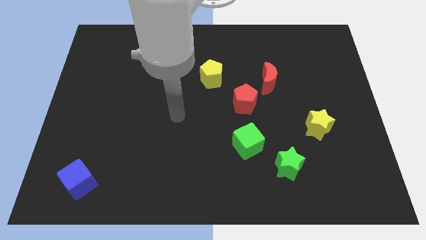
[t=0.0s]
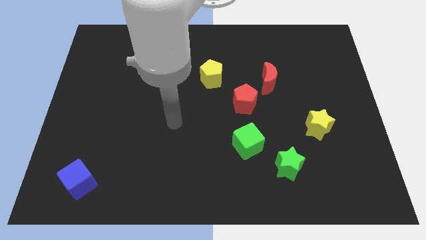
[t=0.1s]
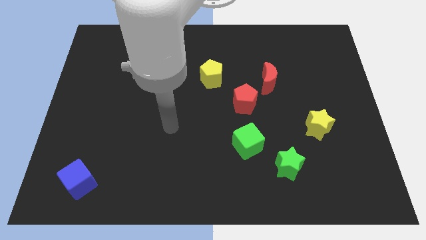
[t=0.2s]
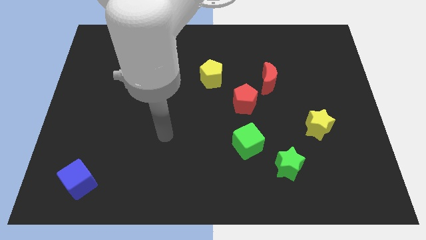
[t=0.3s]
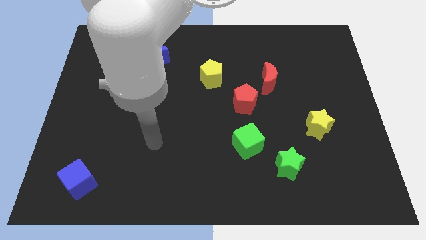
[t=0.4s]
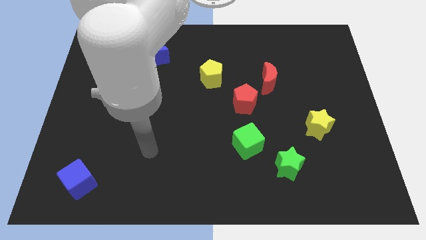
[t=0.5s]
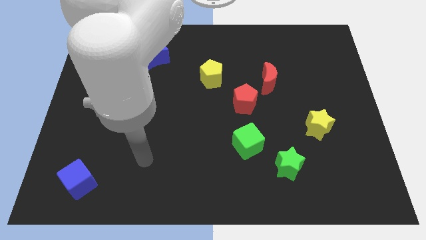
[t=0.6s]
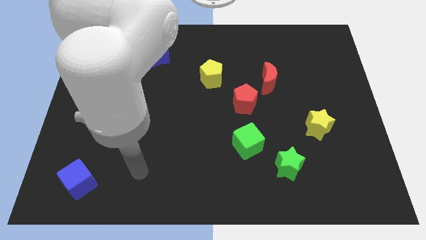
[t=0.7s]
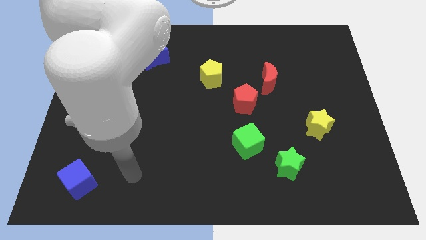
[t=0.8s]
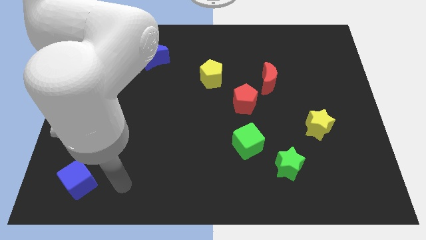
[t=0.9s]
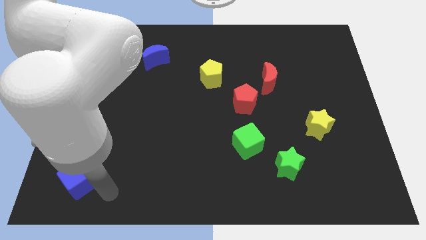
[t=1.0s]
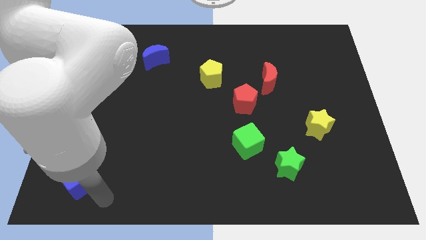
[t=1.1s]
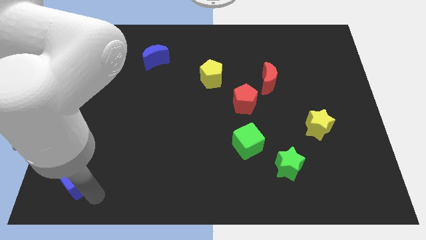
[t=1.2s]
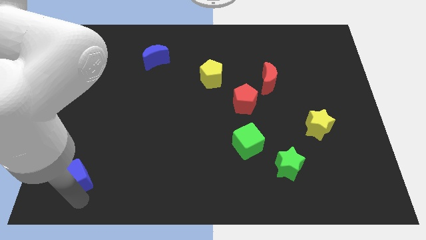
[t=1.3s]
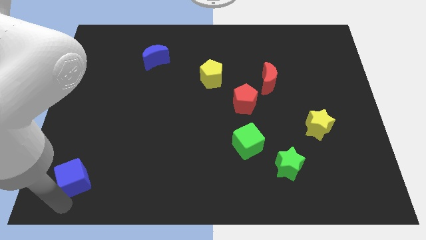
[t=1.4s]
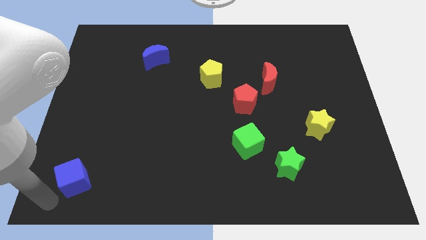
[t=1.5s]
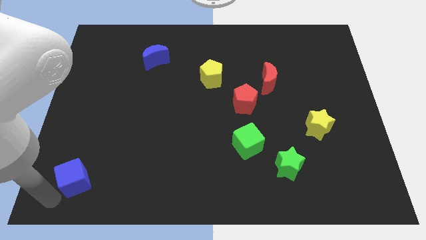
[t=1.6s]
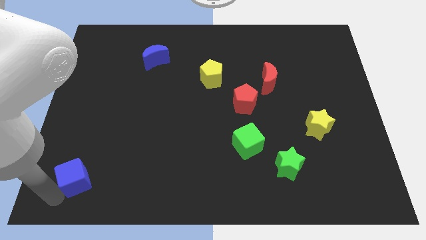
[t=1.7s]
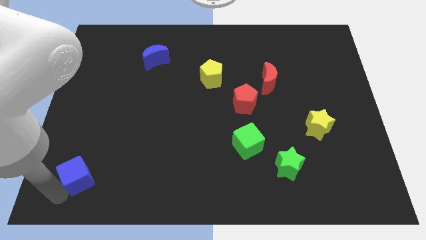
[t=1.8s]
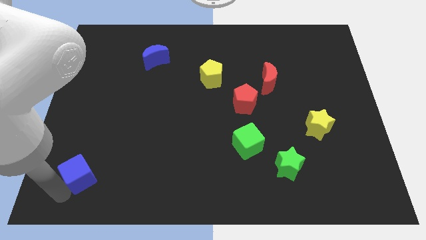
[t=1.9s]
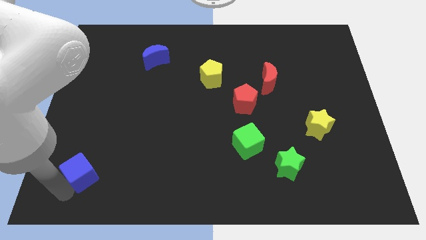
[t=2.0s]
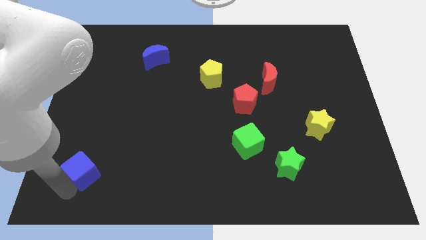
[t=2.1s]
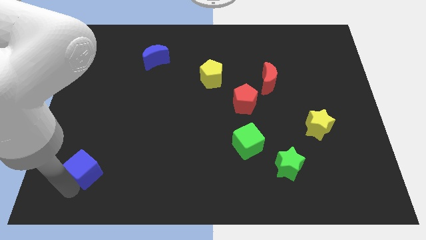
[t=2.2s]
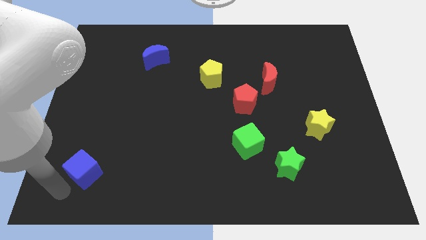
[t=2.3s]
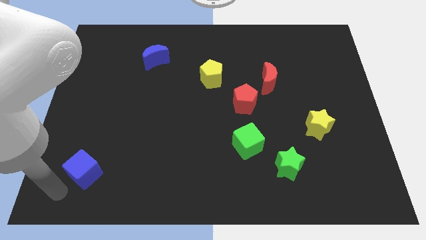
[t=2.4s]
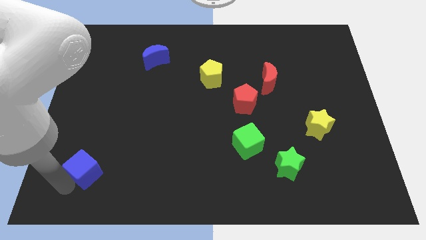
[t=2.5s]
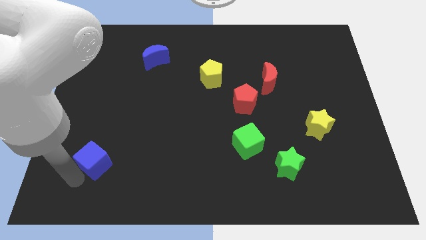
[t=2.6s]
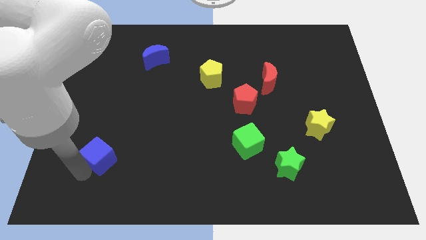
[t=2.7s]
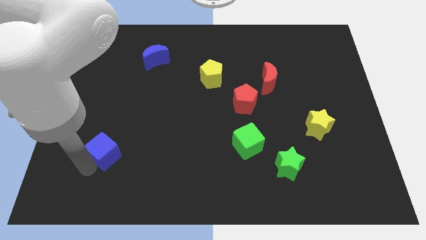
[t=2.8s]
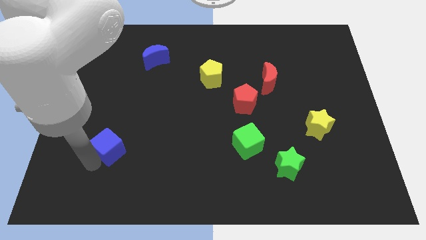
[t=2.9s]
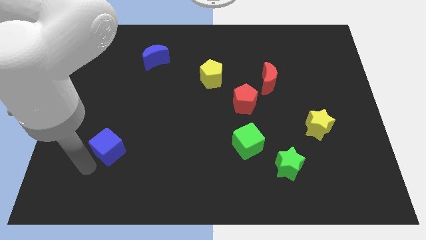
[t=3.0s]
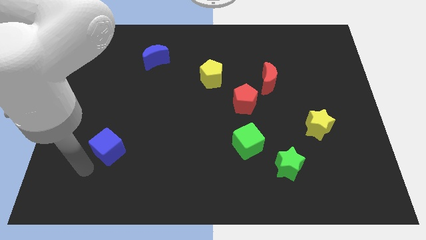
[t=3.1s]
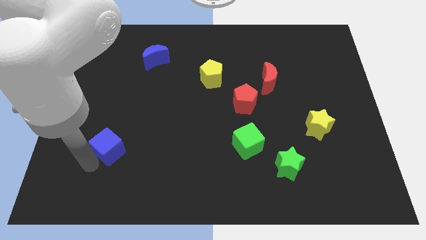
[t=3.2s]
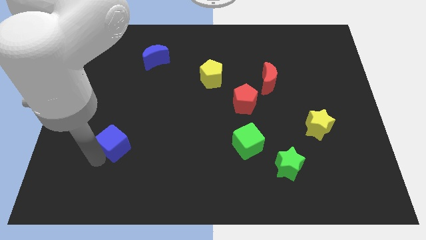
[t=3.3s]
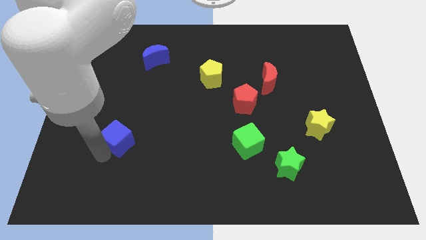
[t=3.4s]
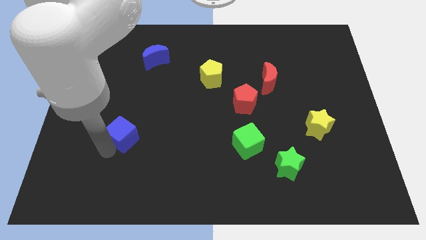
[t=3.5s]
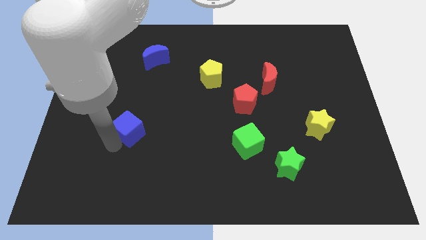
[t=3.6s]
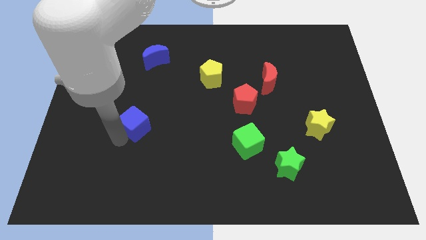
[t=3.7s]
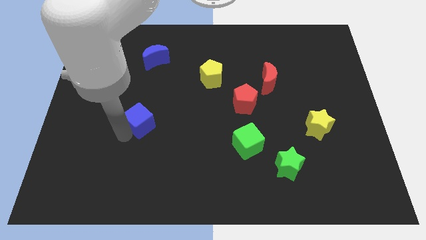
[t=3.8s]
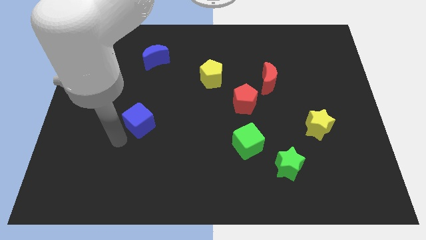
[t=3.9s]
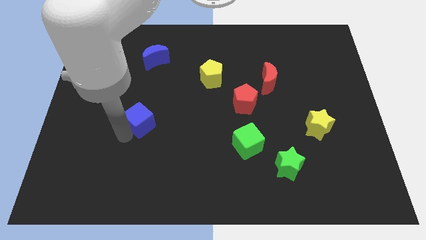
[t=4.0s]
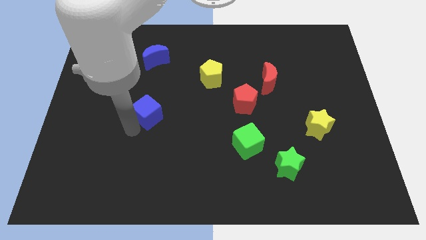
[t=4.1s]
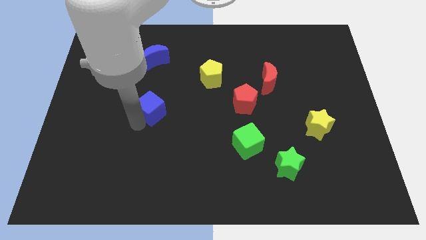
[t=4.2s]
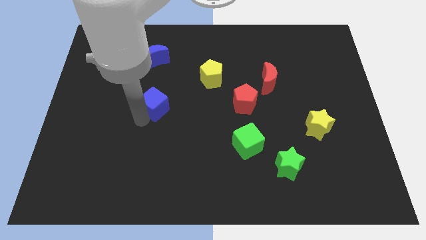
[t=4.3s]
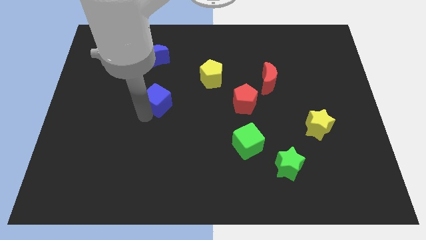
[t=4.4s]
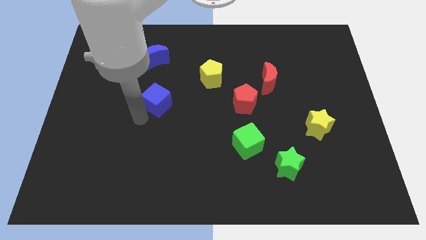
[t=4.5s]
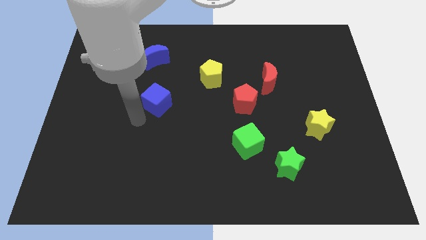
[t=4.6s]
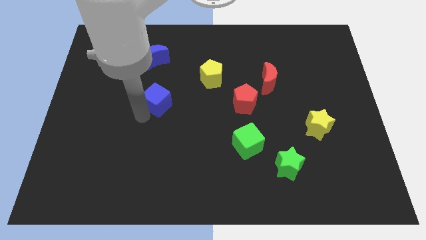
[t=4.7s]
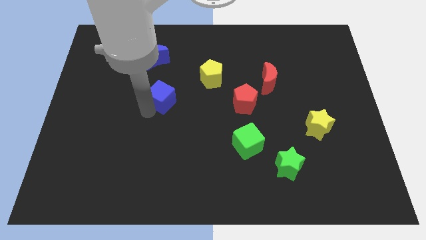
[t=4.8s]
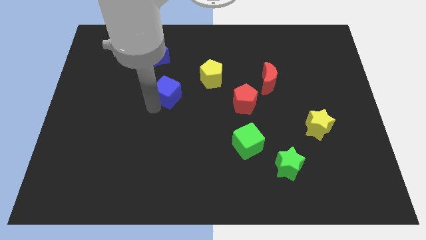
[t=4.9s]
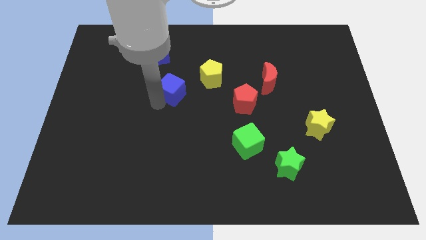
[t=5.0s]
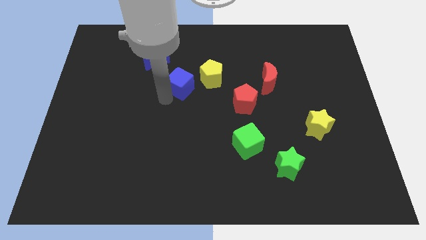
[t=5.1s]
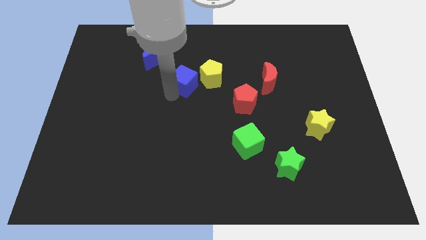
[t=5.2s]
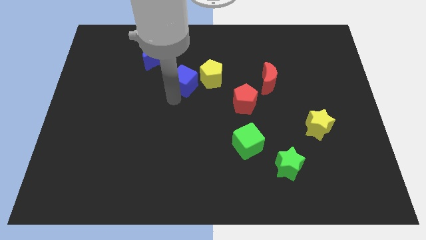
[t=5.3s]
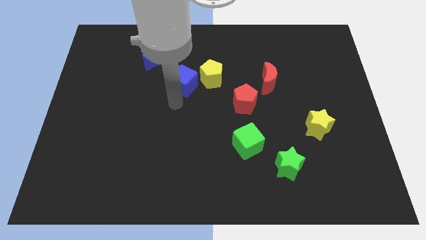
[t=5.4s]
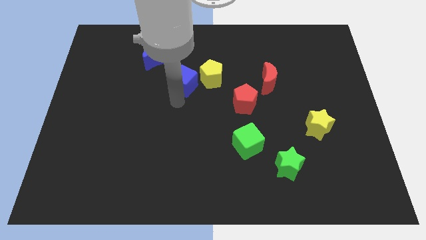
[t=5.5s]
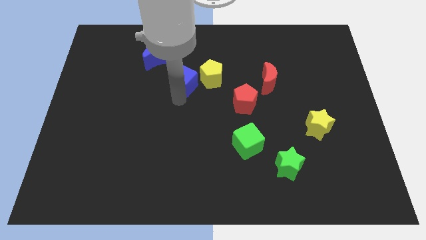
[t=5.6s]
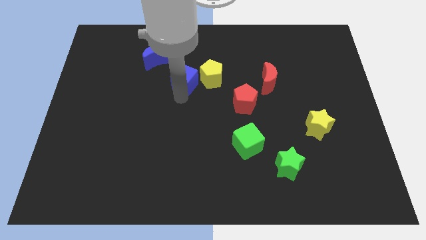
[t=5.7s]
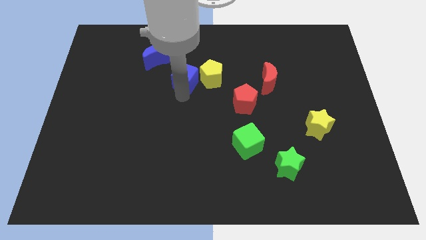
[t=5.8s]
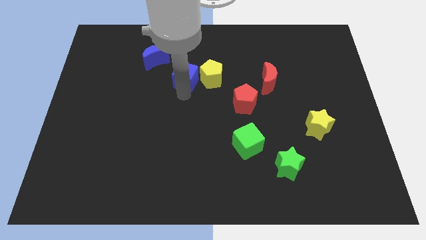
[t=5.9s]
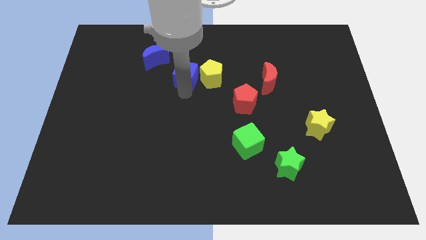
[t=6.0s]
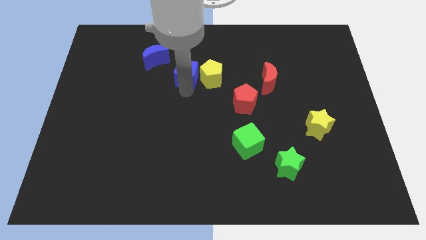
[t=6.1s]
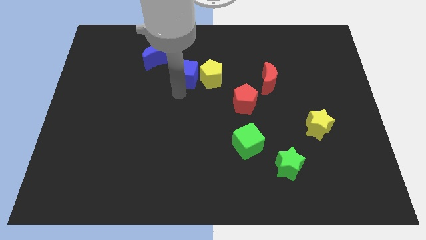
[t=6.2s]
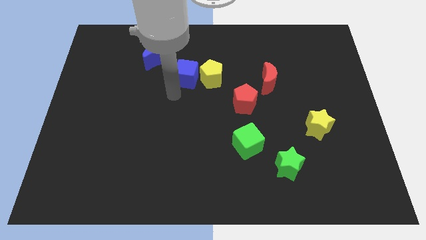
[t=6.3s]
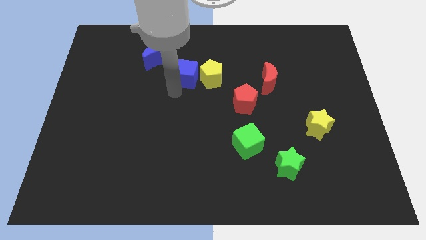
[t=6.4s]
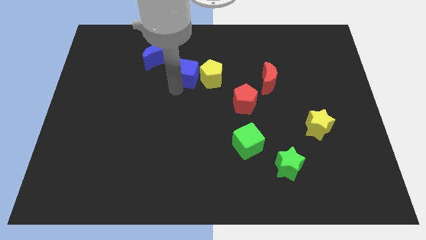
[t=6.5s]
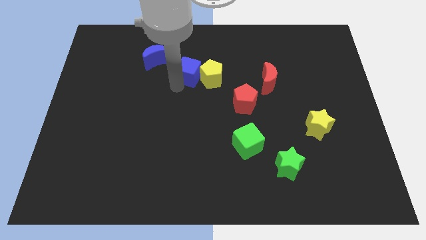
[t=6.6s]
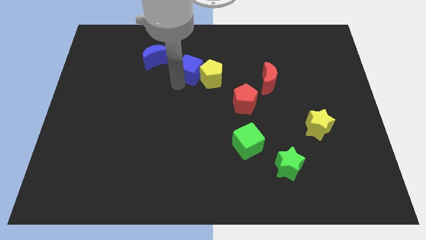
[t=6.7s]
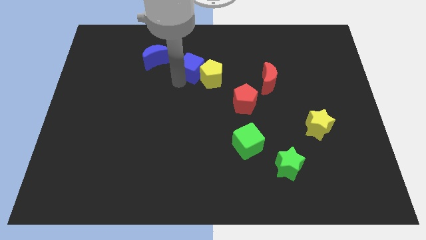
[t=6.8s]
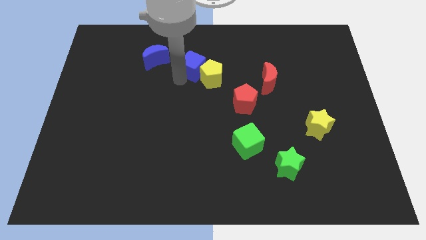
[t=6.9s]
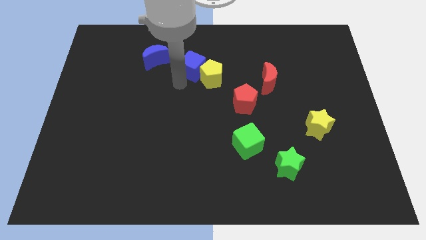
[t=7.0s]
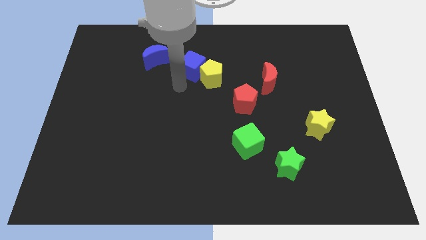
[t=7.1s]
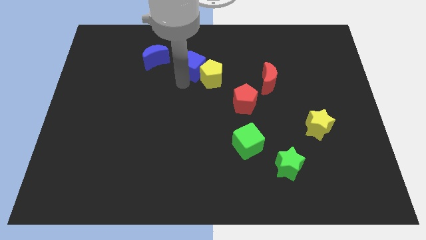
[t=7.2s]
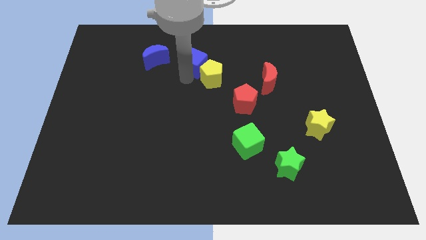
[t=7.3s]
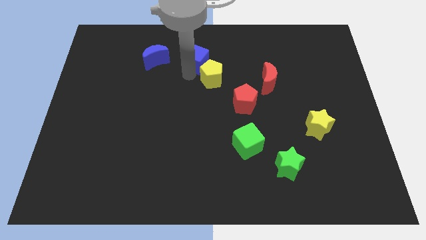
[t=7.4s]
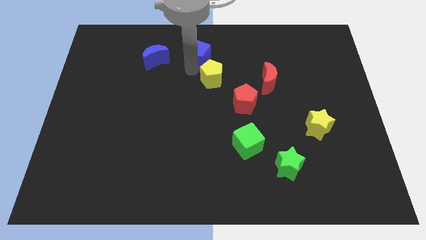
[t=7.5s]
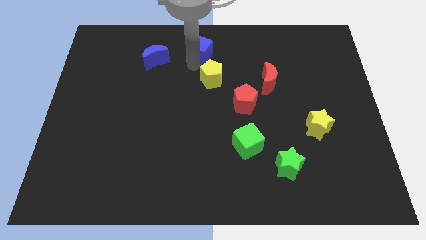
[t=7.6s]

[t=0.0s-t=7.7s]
slide the blue cube to the top
